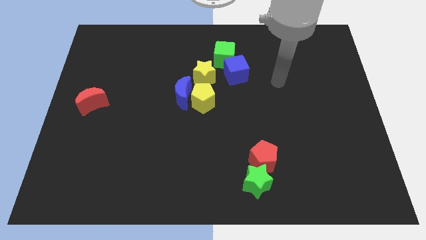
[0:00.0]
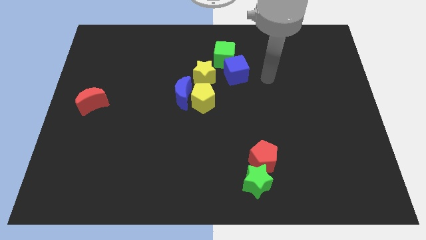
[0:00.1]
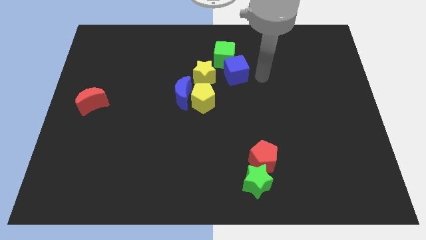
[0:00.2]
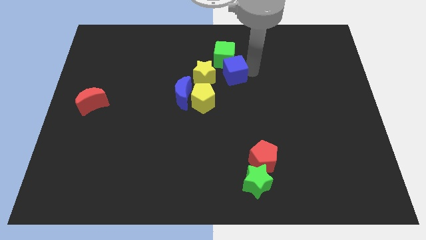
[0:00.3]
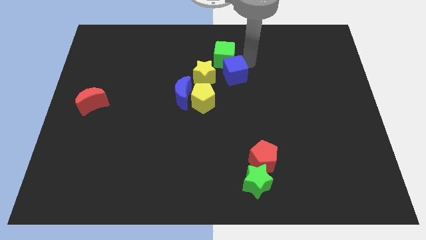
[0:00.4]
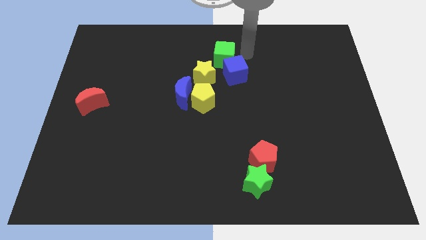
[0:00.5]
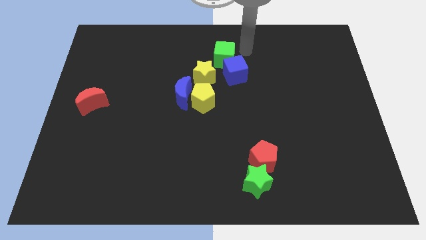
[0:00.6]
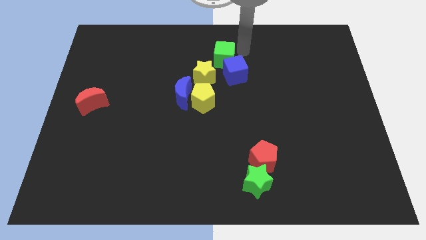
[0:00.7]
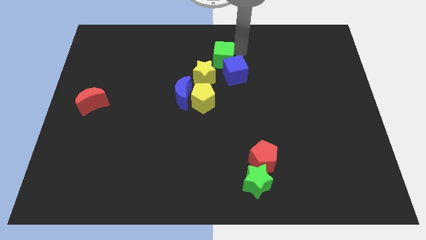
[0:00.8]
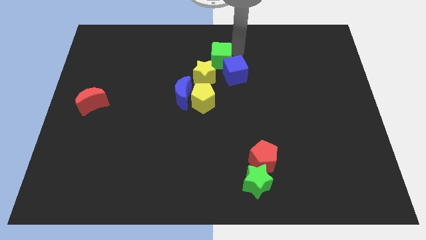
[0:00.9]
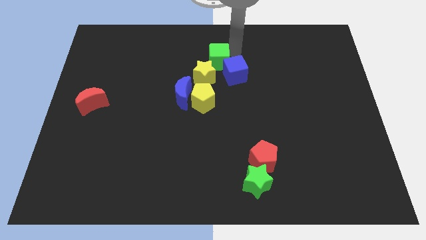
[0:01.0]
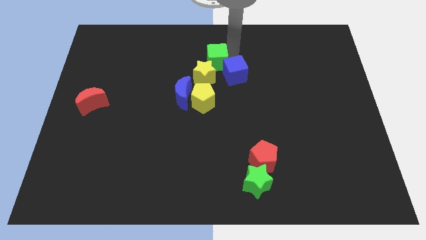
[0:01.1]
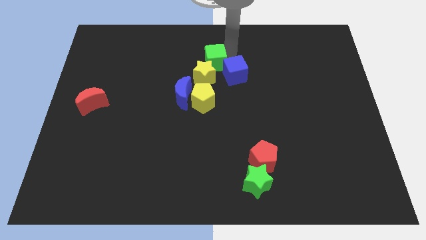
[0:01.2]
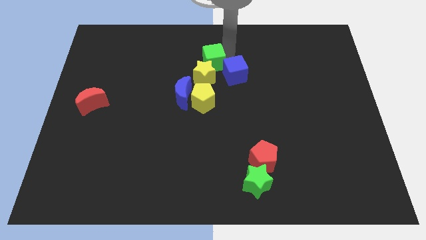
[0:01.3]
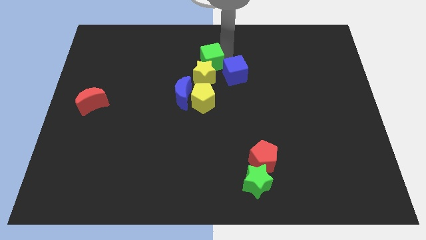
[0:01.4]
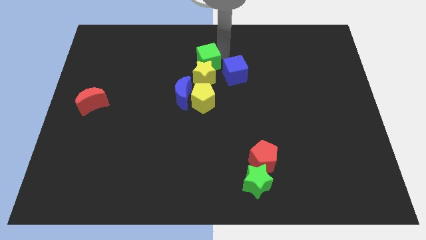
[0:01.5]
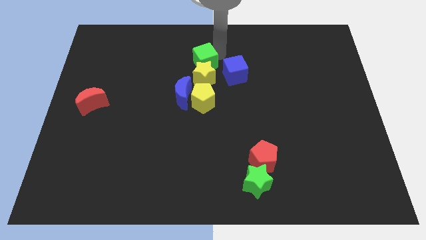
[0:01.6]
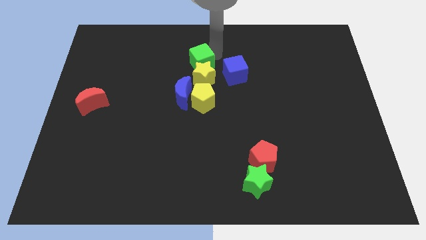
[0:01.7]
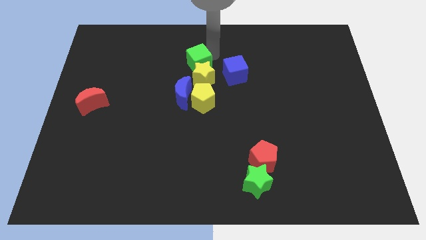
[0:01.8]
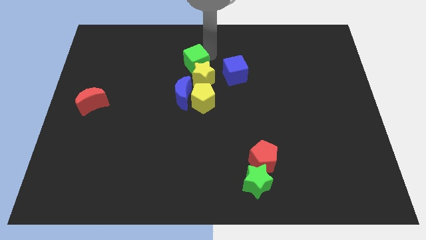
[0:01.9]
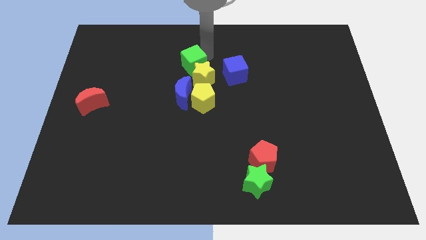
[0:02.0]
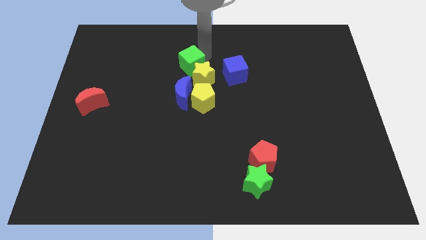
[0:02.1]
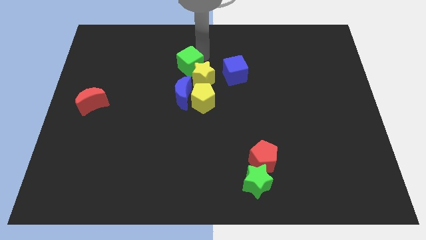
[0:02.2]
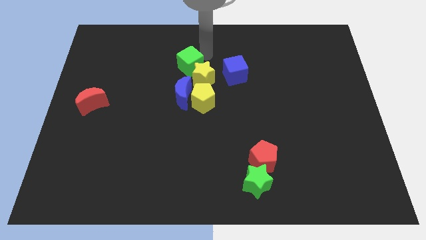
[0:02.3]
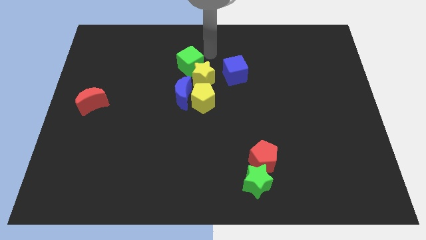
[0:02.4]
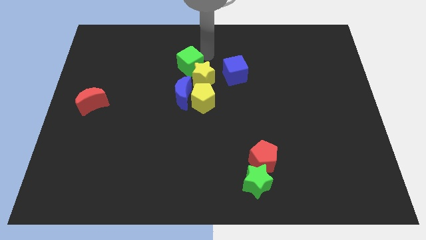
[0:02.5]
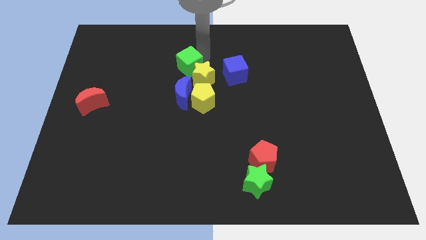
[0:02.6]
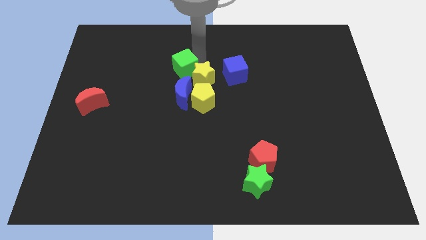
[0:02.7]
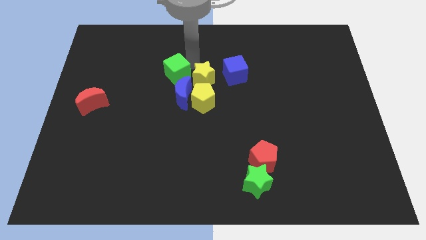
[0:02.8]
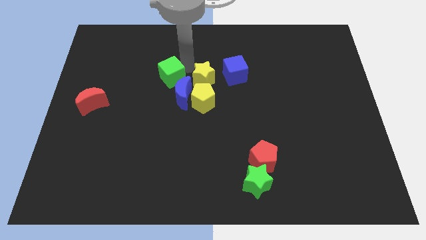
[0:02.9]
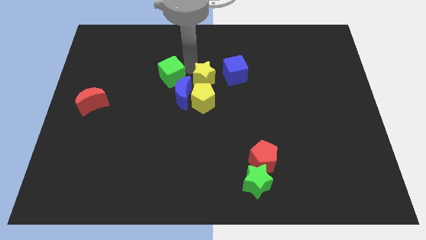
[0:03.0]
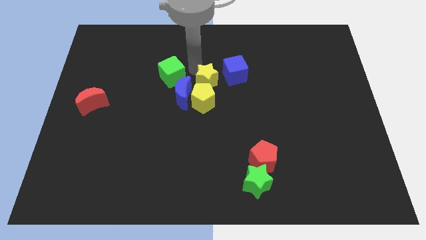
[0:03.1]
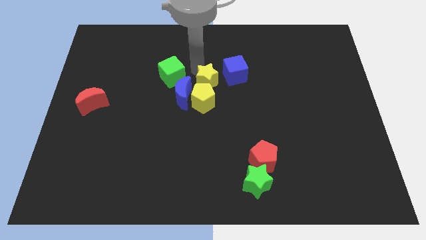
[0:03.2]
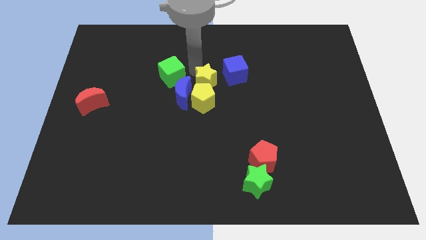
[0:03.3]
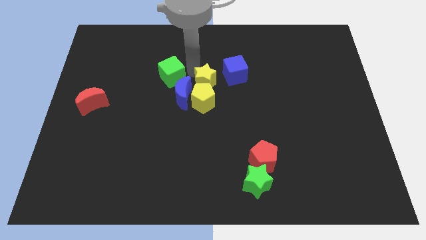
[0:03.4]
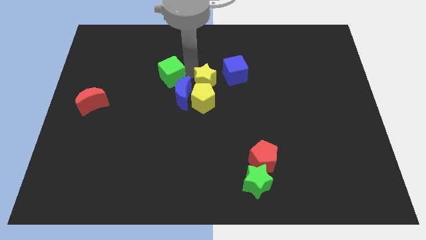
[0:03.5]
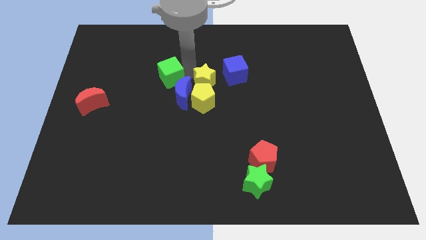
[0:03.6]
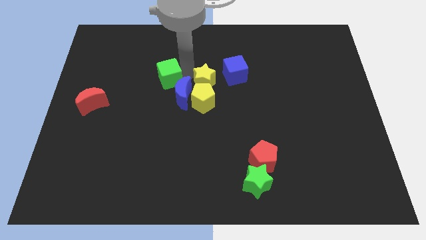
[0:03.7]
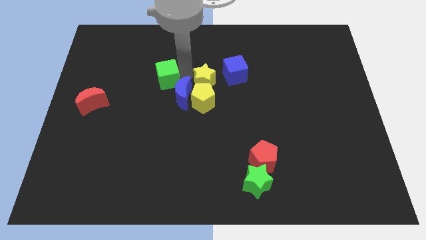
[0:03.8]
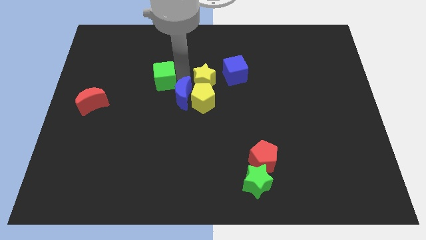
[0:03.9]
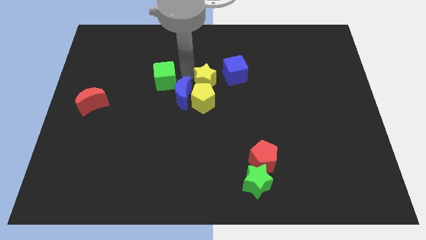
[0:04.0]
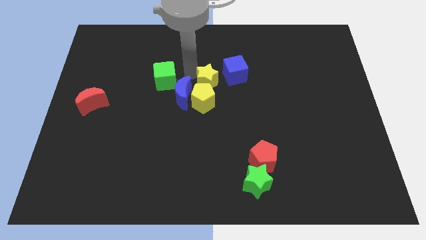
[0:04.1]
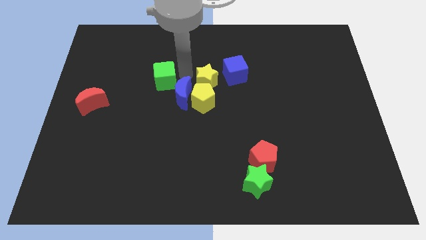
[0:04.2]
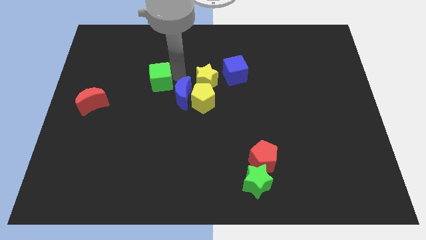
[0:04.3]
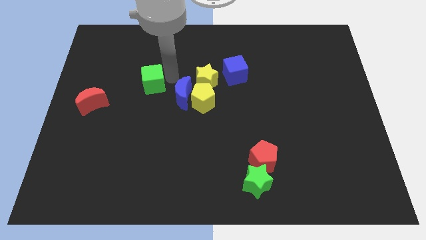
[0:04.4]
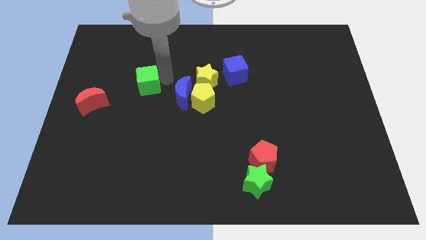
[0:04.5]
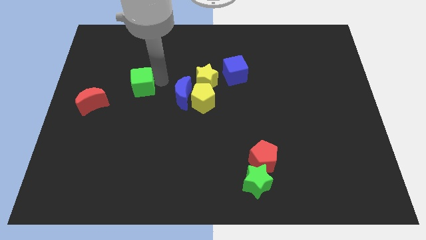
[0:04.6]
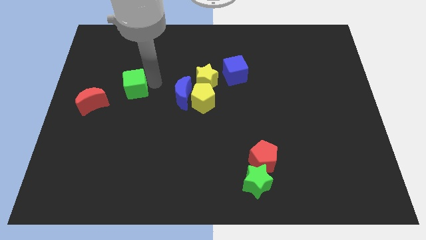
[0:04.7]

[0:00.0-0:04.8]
put the green cube diagonally up and to the right of the red moon

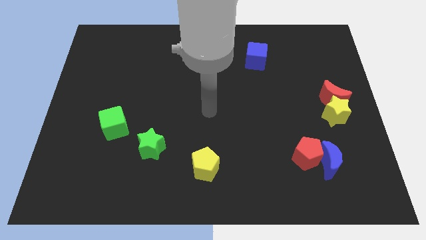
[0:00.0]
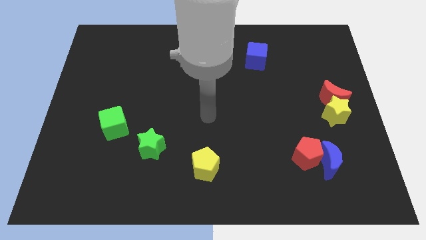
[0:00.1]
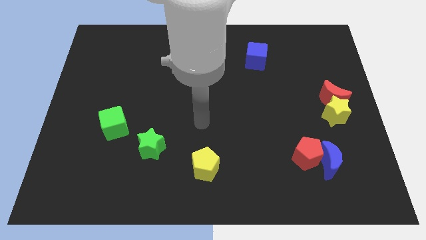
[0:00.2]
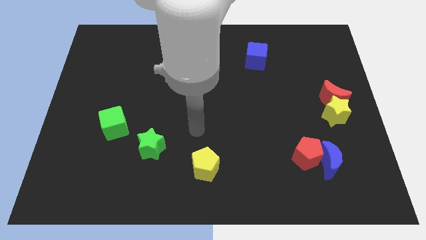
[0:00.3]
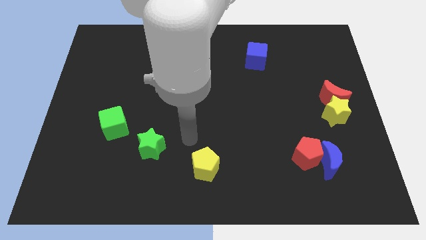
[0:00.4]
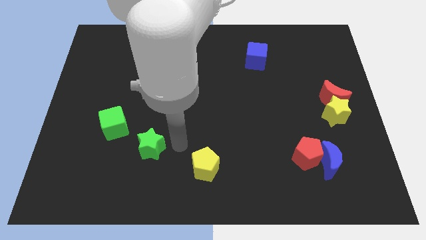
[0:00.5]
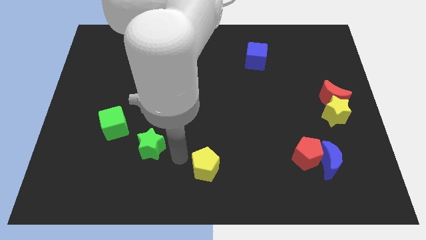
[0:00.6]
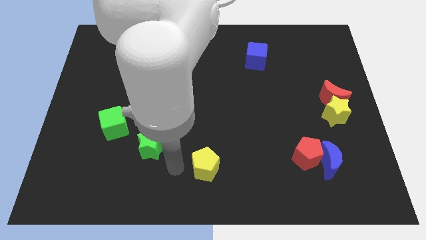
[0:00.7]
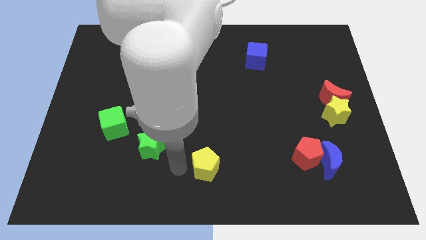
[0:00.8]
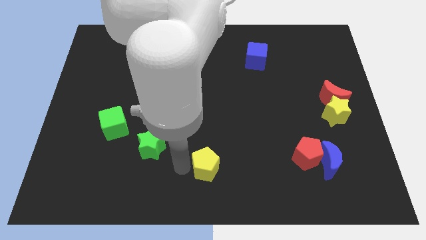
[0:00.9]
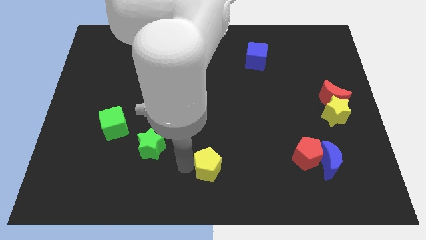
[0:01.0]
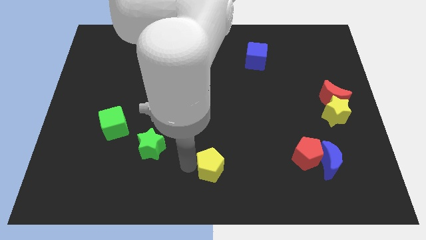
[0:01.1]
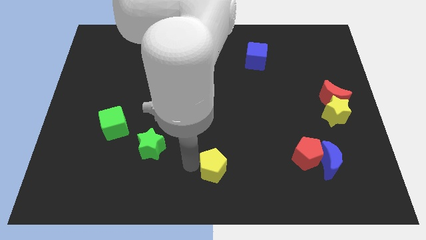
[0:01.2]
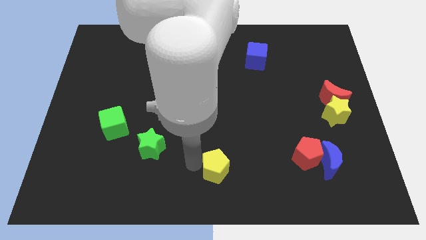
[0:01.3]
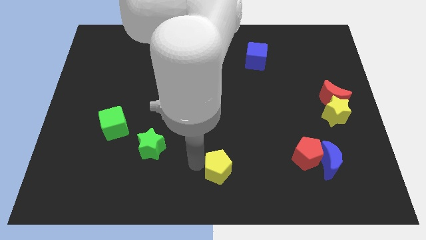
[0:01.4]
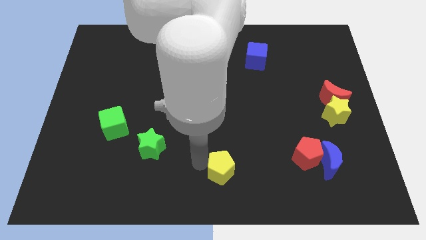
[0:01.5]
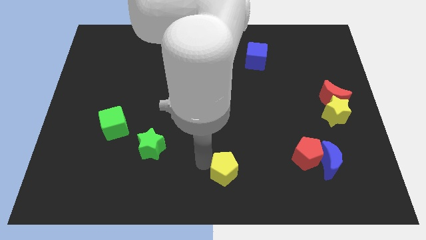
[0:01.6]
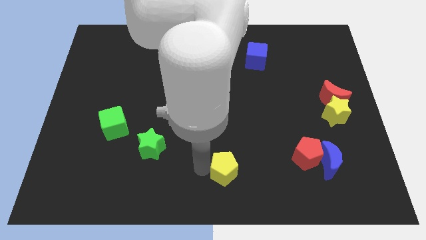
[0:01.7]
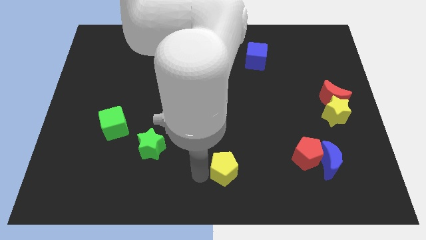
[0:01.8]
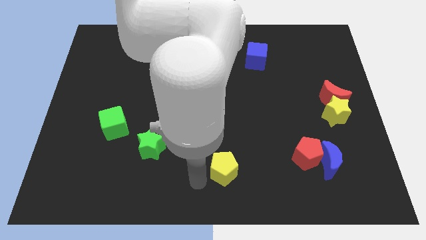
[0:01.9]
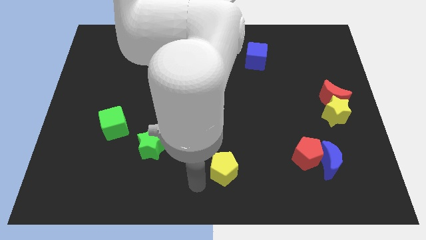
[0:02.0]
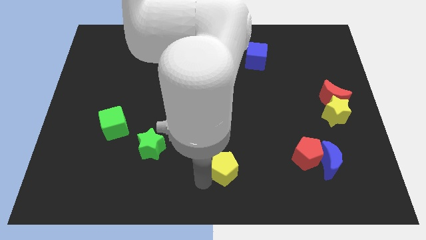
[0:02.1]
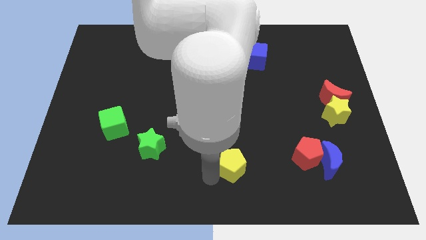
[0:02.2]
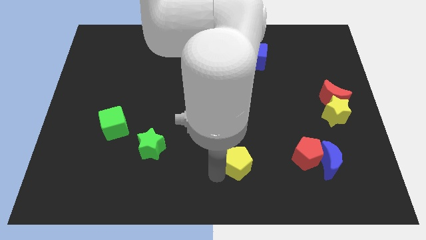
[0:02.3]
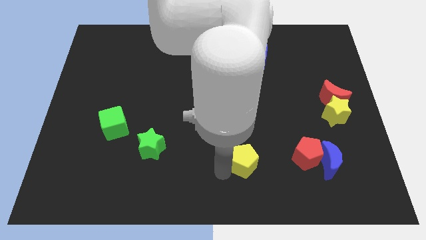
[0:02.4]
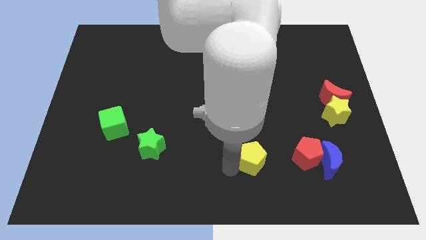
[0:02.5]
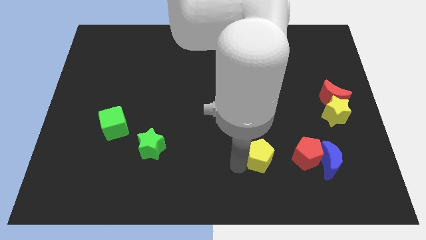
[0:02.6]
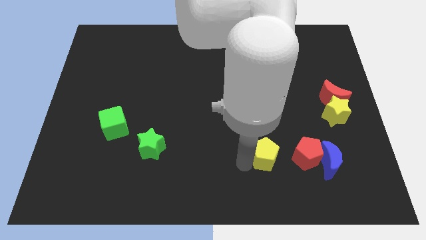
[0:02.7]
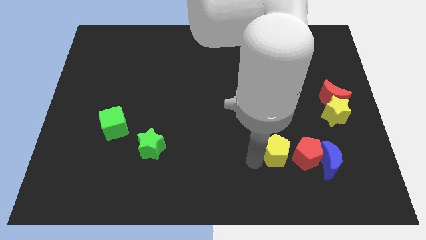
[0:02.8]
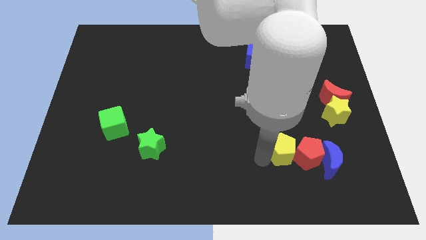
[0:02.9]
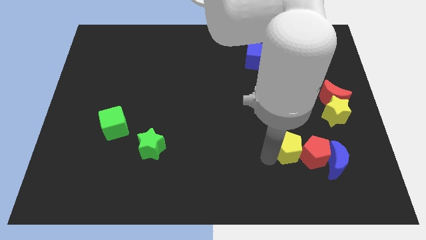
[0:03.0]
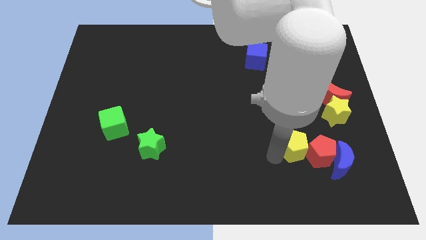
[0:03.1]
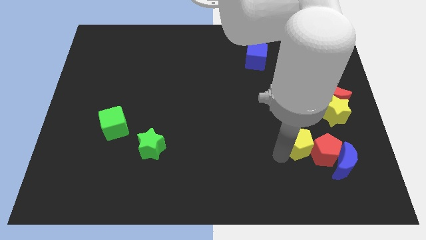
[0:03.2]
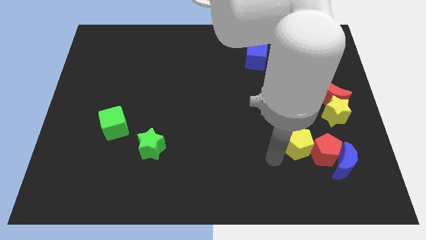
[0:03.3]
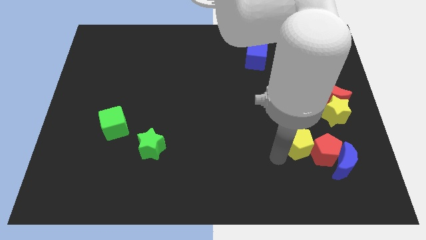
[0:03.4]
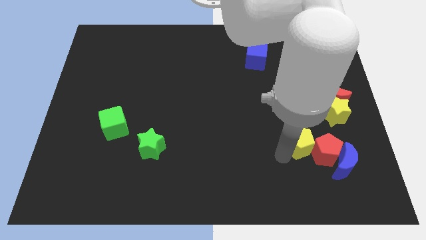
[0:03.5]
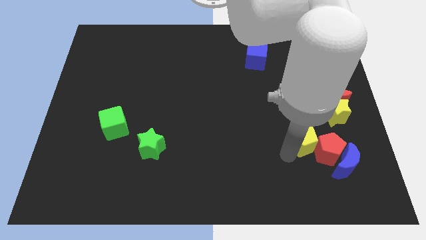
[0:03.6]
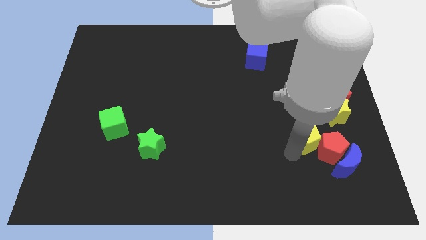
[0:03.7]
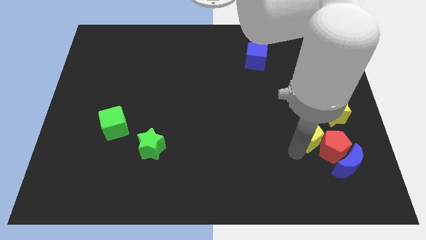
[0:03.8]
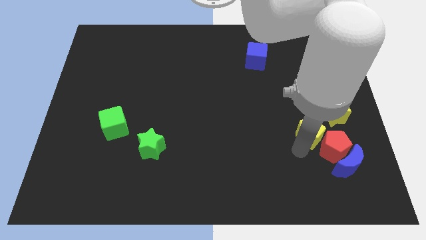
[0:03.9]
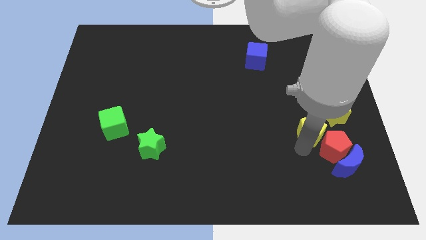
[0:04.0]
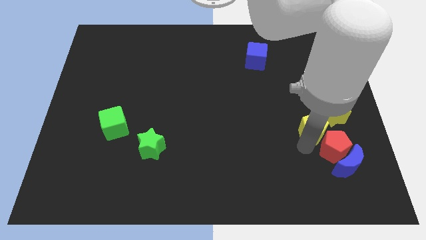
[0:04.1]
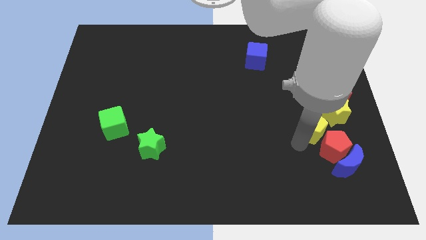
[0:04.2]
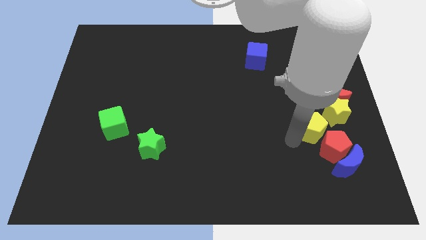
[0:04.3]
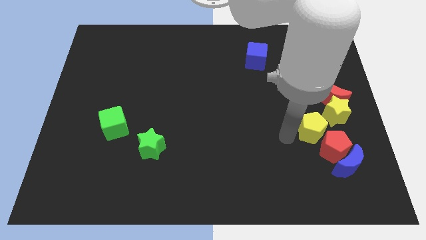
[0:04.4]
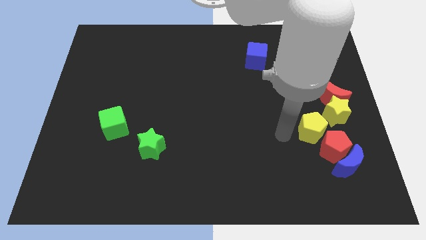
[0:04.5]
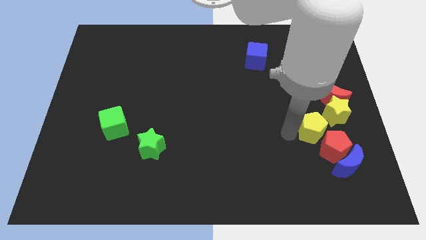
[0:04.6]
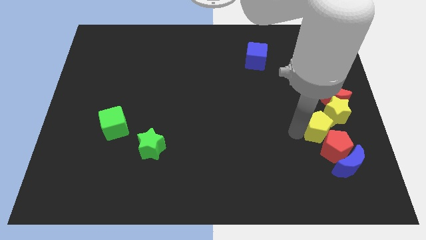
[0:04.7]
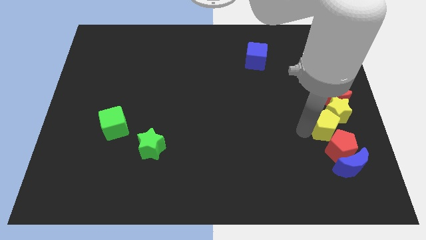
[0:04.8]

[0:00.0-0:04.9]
push the yellow pentagon to the top side of the blue moon
